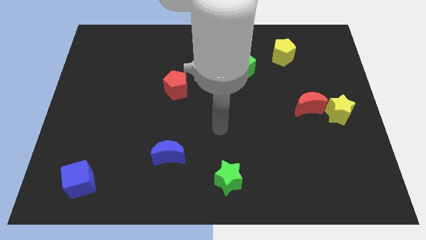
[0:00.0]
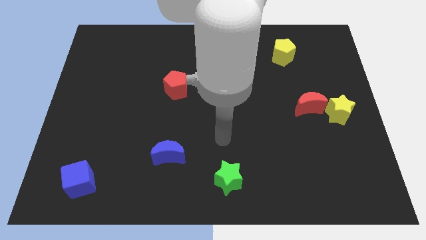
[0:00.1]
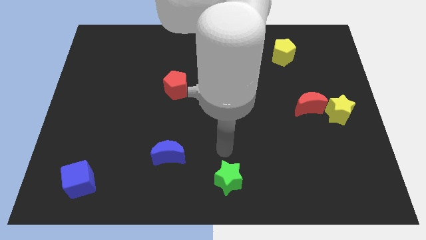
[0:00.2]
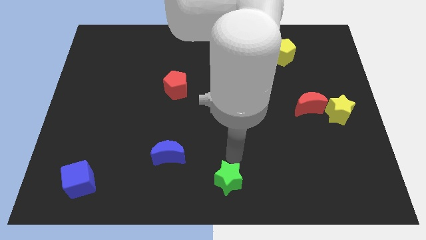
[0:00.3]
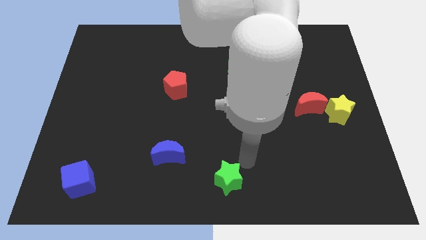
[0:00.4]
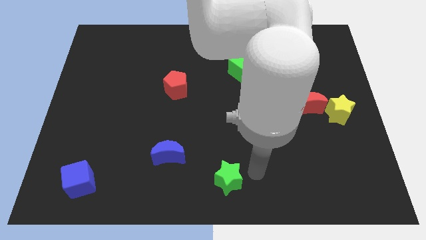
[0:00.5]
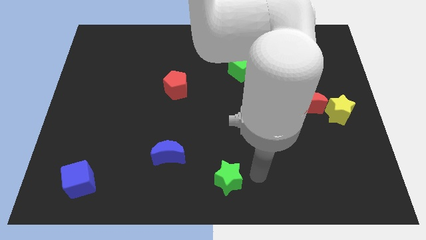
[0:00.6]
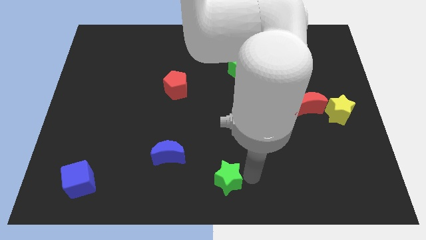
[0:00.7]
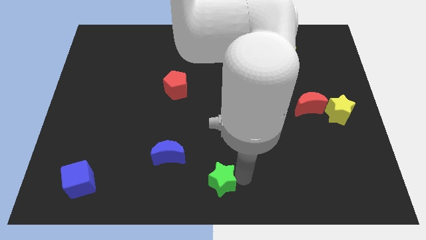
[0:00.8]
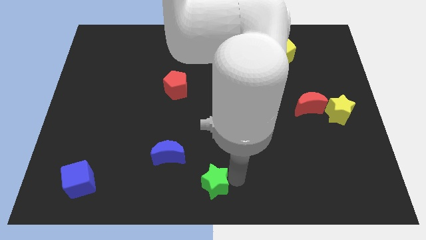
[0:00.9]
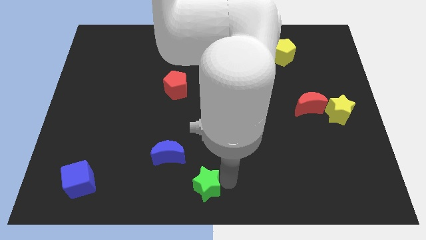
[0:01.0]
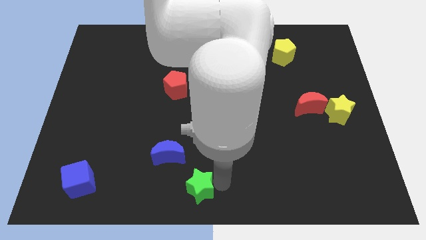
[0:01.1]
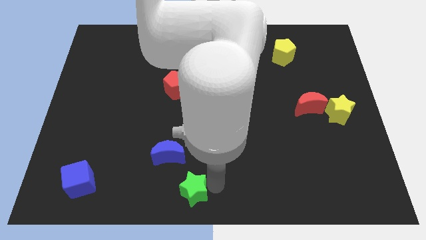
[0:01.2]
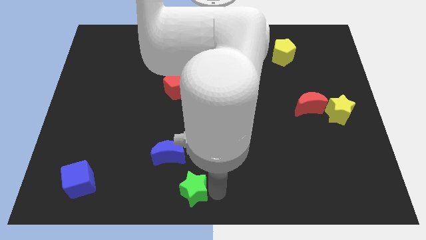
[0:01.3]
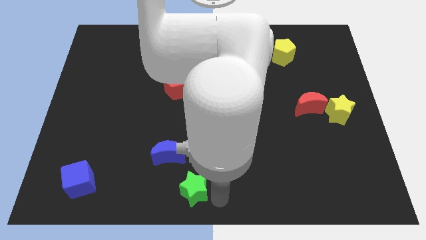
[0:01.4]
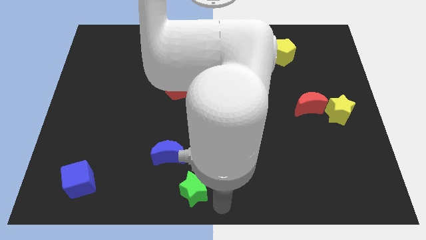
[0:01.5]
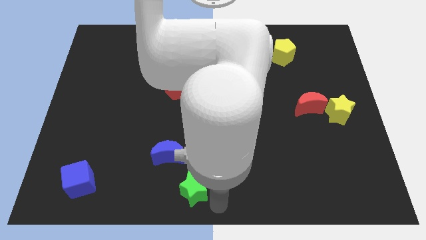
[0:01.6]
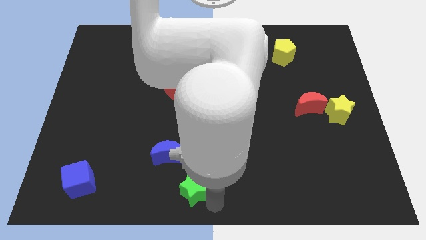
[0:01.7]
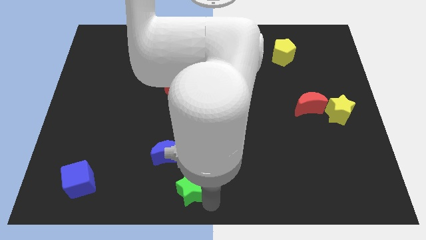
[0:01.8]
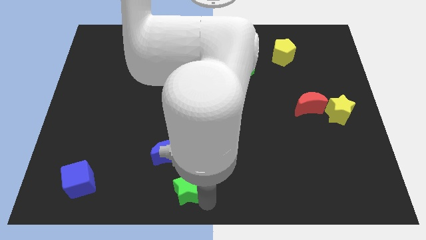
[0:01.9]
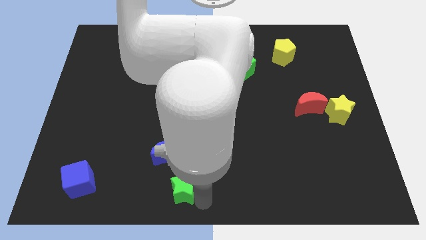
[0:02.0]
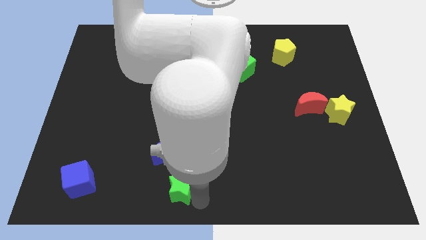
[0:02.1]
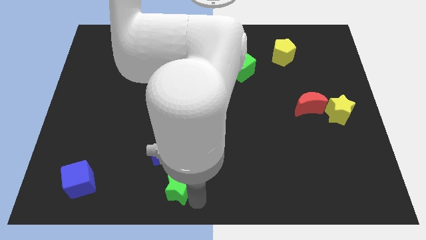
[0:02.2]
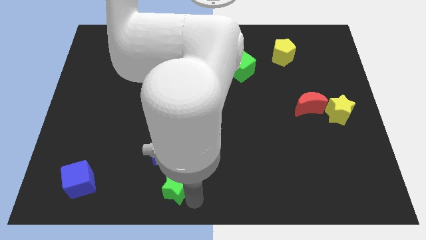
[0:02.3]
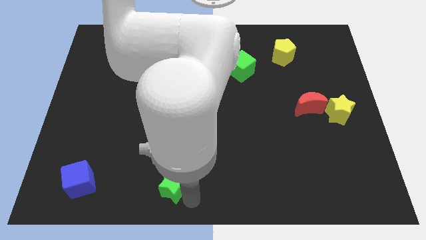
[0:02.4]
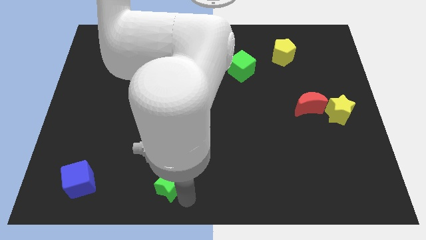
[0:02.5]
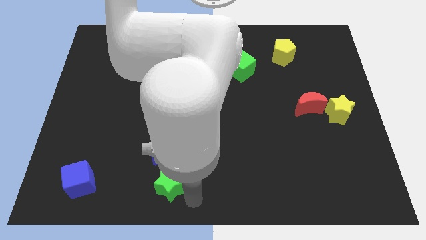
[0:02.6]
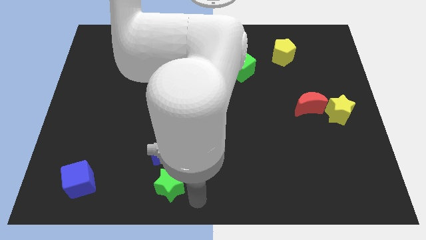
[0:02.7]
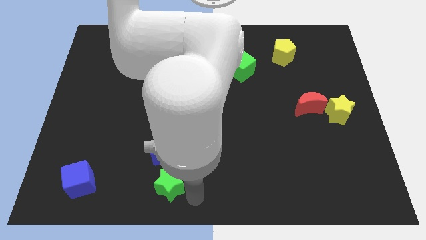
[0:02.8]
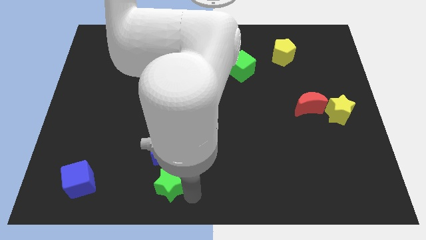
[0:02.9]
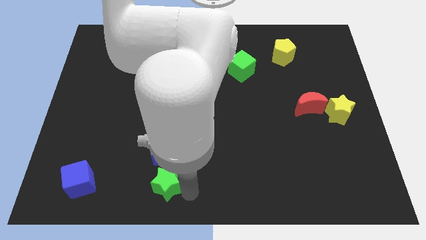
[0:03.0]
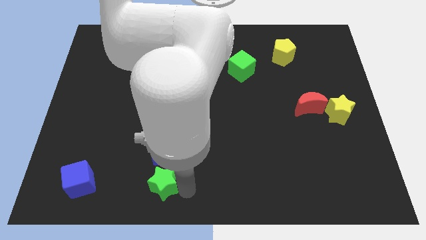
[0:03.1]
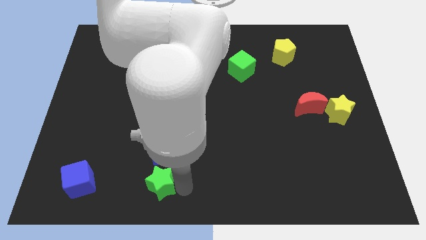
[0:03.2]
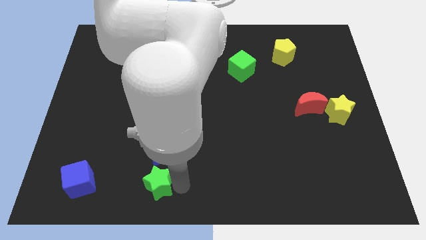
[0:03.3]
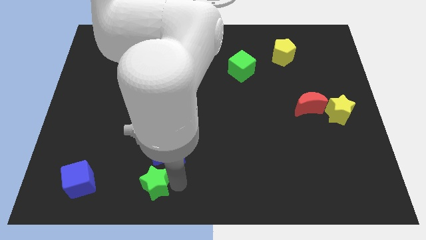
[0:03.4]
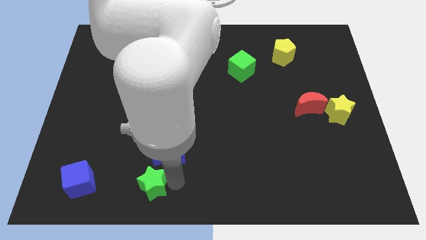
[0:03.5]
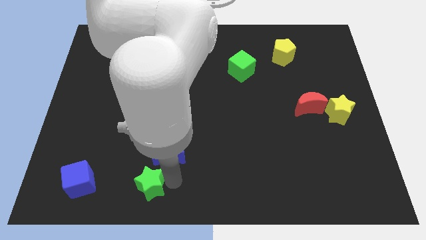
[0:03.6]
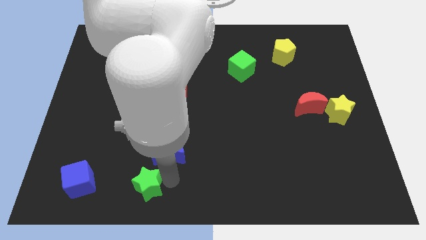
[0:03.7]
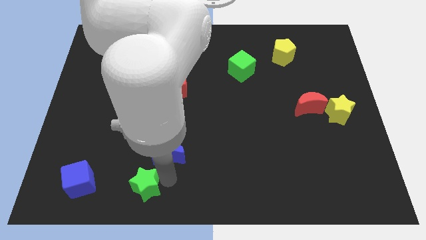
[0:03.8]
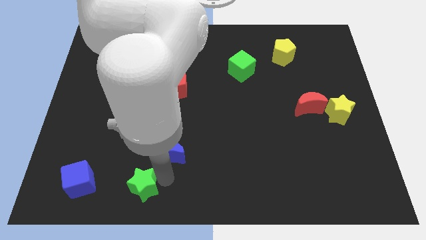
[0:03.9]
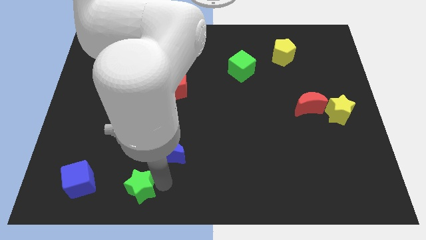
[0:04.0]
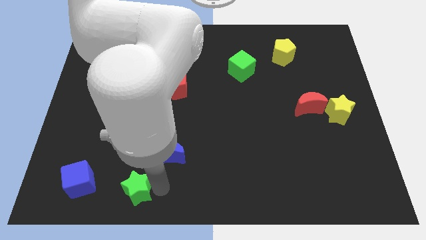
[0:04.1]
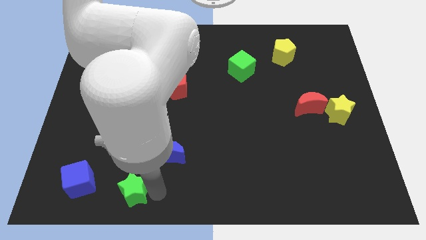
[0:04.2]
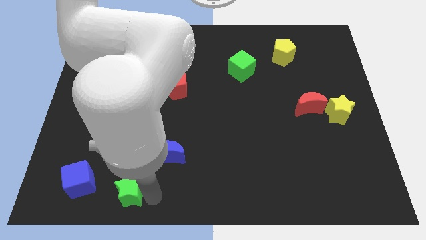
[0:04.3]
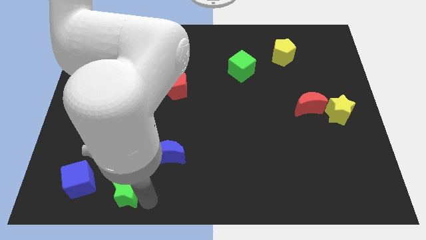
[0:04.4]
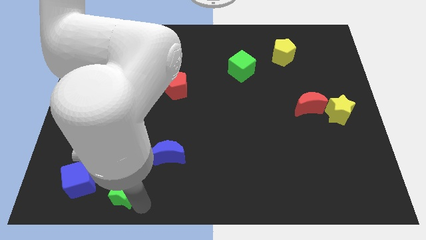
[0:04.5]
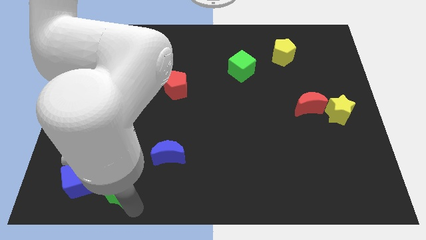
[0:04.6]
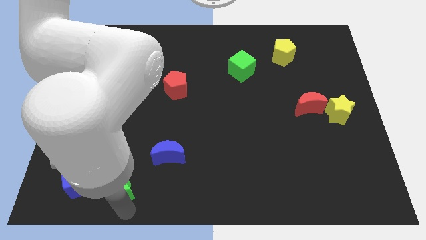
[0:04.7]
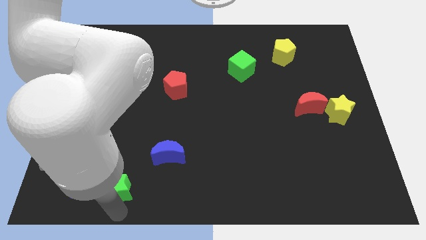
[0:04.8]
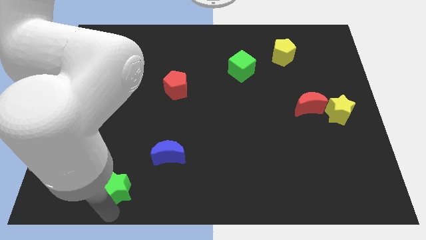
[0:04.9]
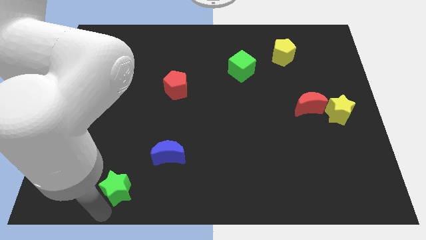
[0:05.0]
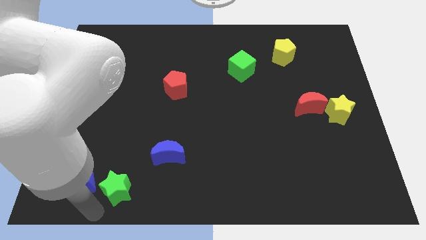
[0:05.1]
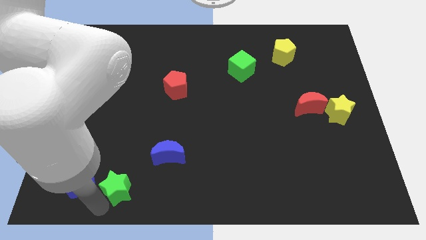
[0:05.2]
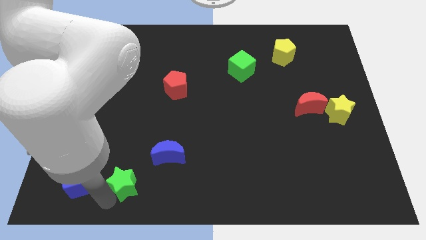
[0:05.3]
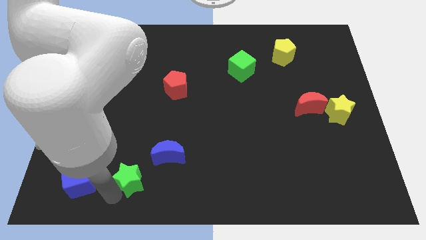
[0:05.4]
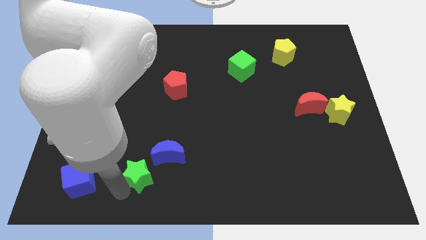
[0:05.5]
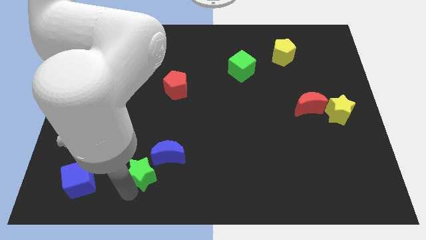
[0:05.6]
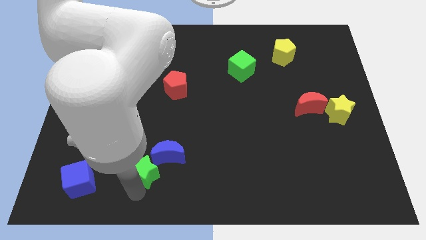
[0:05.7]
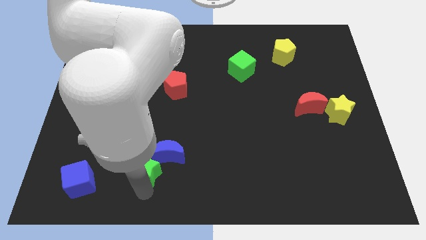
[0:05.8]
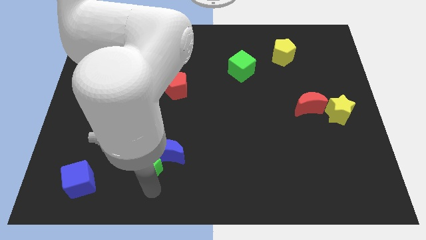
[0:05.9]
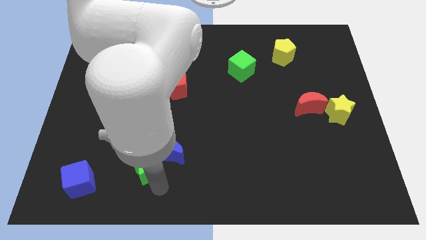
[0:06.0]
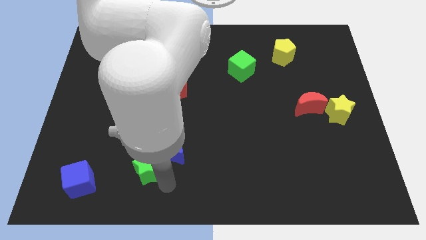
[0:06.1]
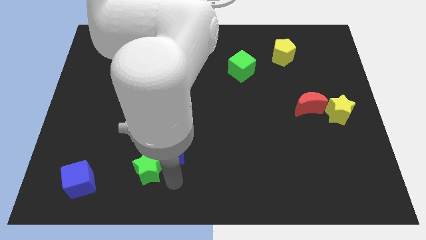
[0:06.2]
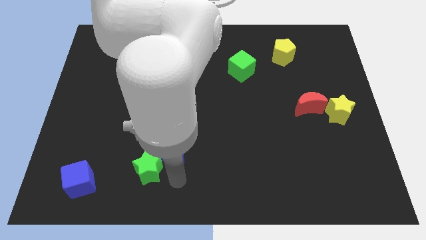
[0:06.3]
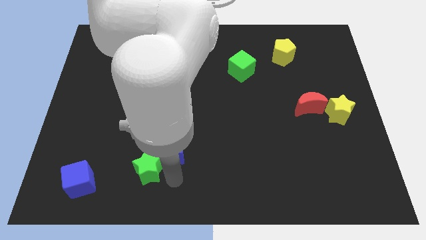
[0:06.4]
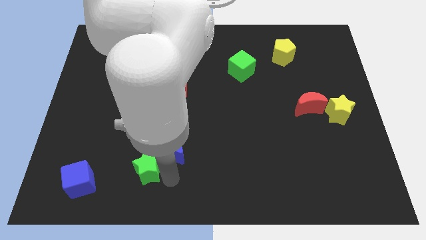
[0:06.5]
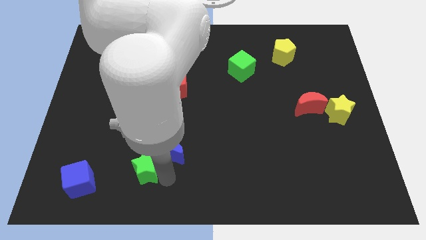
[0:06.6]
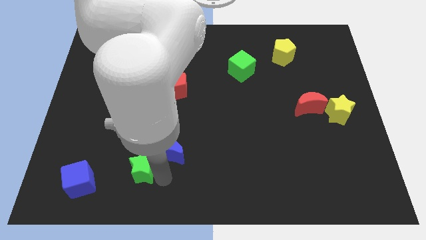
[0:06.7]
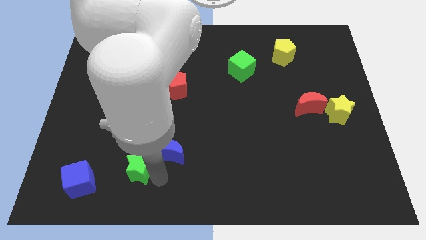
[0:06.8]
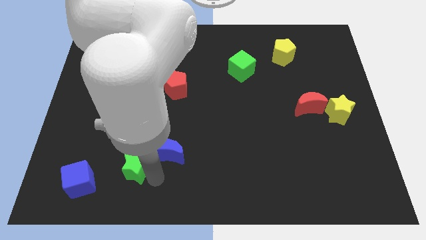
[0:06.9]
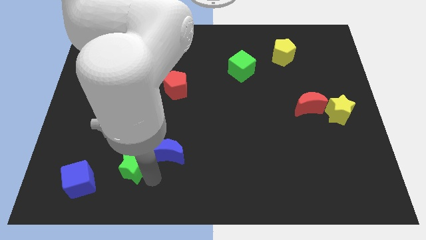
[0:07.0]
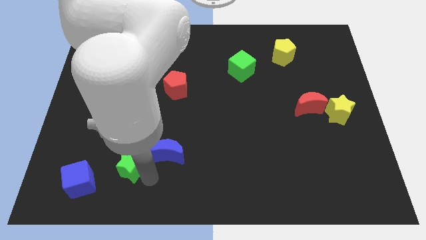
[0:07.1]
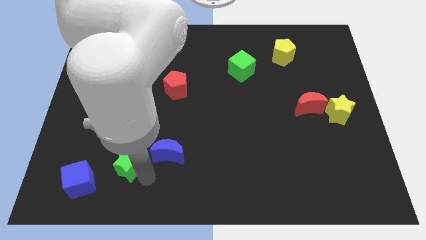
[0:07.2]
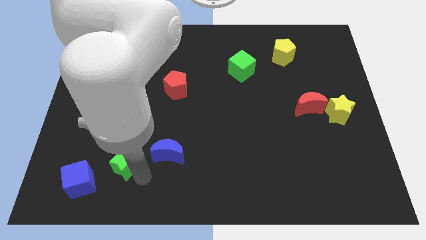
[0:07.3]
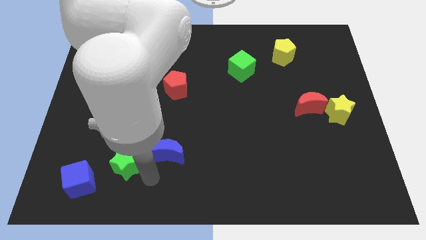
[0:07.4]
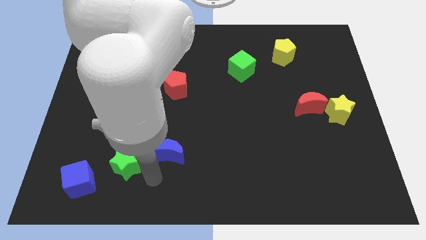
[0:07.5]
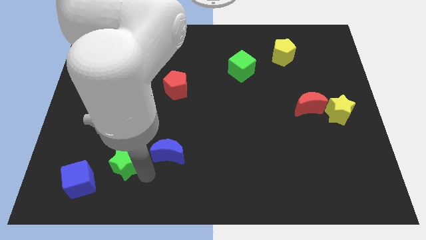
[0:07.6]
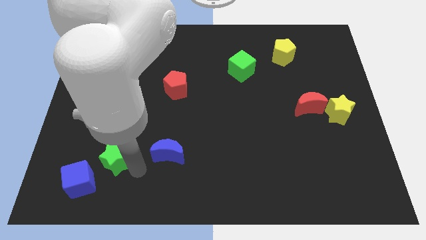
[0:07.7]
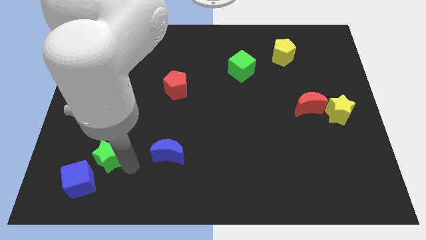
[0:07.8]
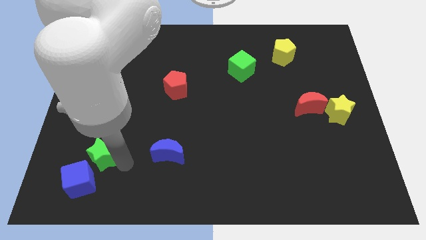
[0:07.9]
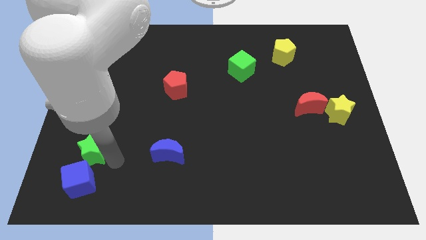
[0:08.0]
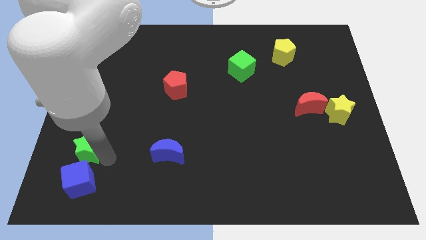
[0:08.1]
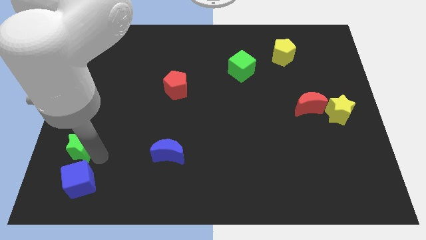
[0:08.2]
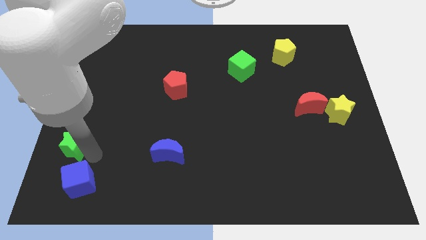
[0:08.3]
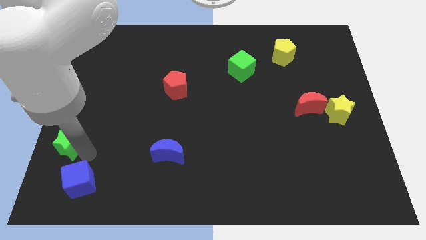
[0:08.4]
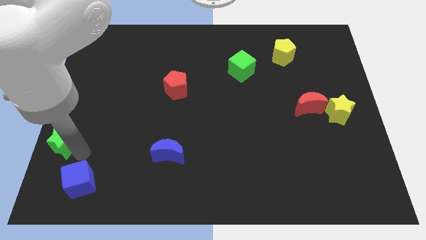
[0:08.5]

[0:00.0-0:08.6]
push the green star to the left side
